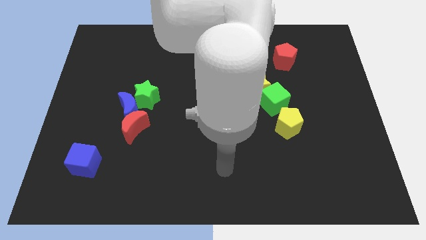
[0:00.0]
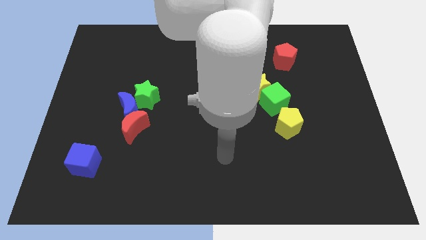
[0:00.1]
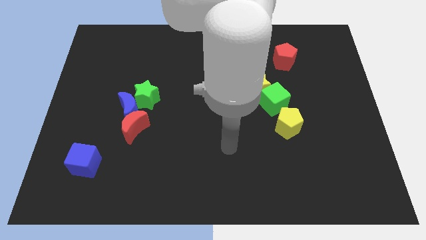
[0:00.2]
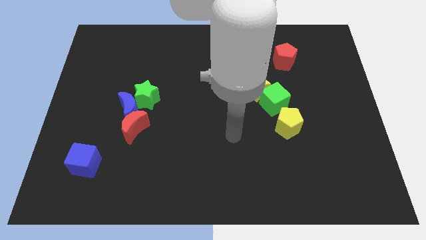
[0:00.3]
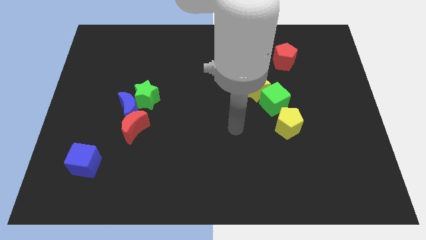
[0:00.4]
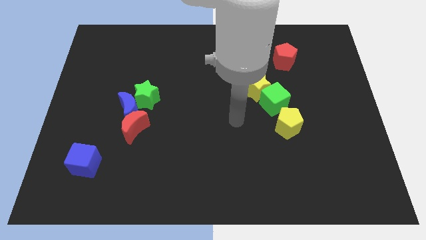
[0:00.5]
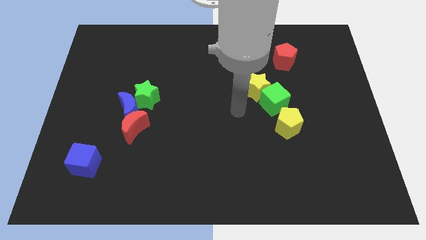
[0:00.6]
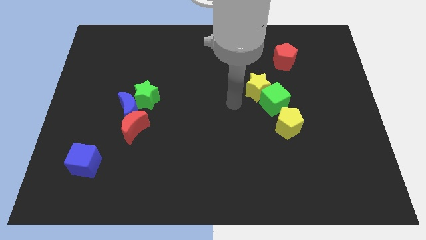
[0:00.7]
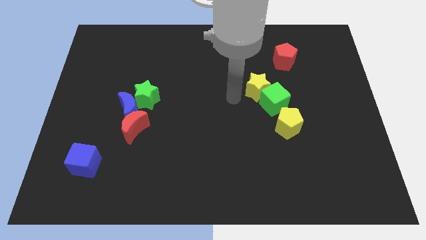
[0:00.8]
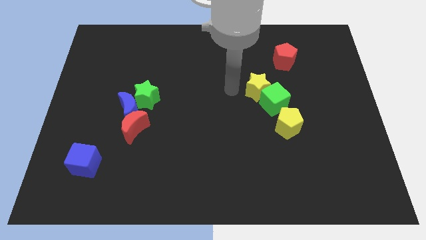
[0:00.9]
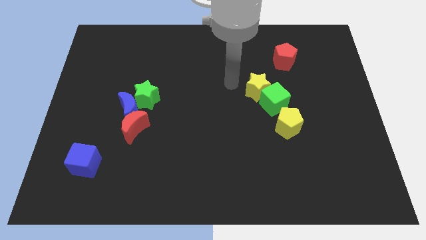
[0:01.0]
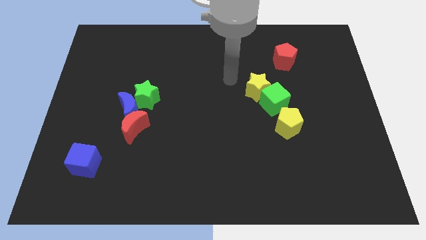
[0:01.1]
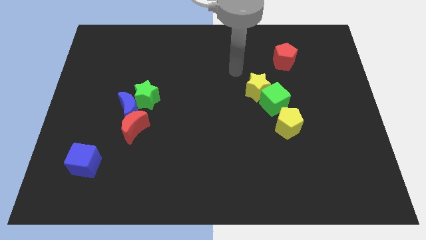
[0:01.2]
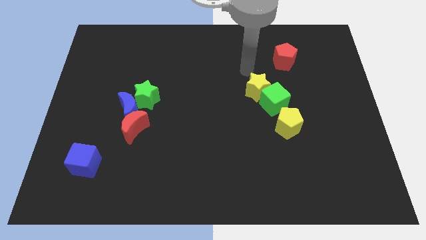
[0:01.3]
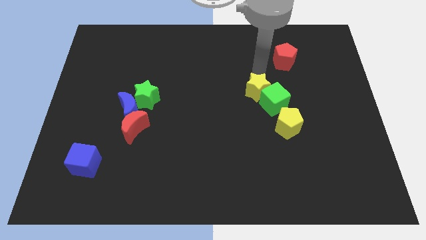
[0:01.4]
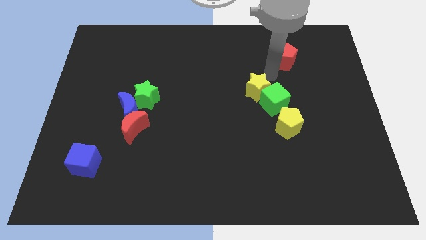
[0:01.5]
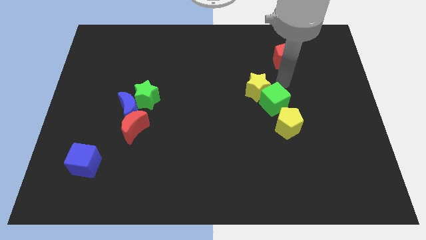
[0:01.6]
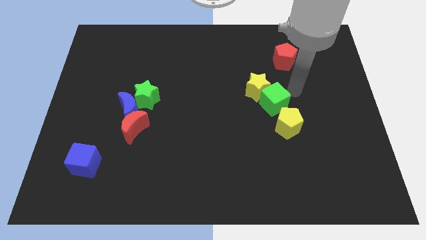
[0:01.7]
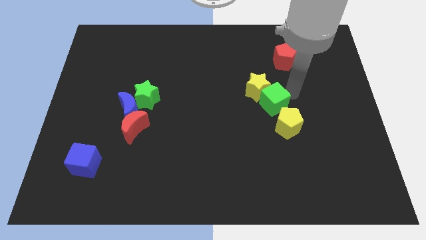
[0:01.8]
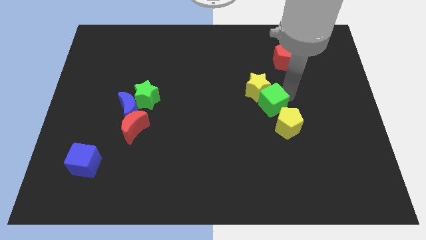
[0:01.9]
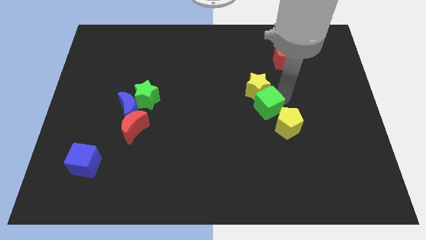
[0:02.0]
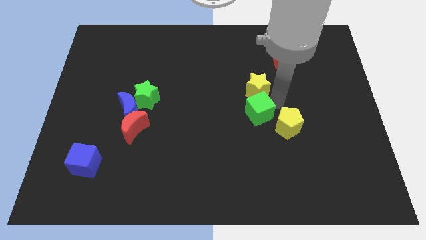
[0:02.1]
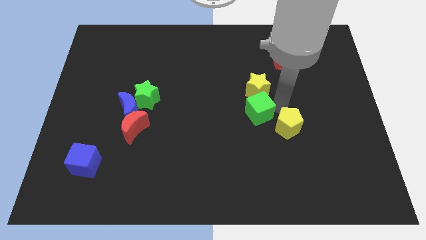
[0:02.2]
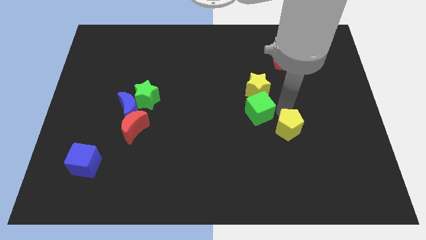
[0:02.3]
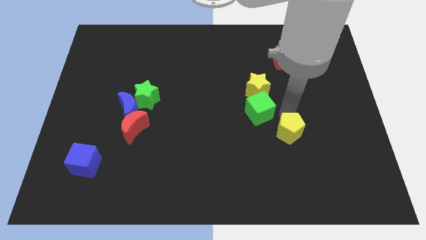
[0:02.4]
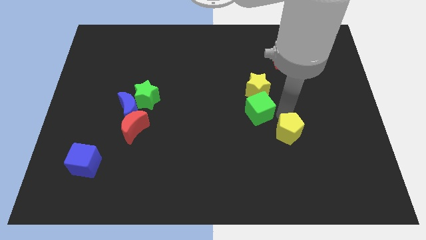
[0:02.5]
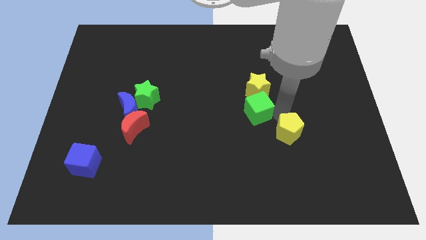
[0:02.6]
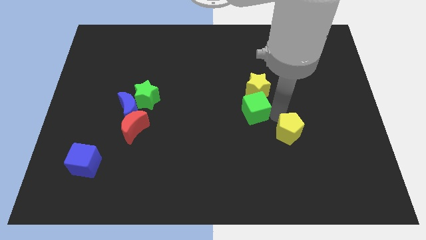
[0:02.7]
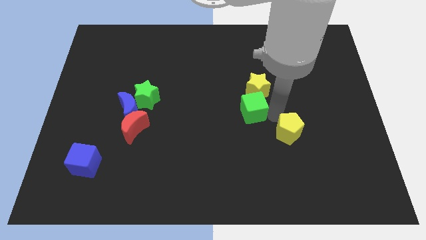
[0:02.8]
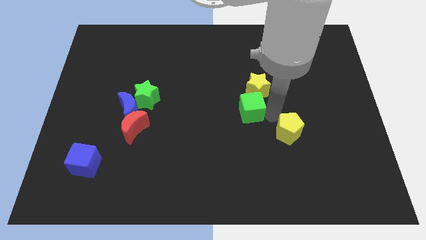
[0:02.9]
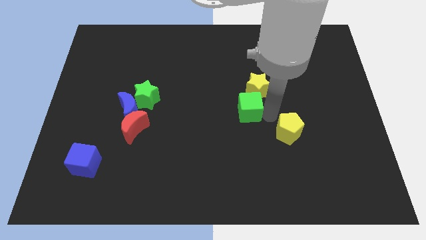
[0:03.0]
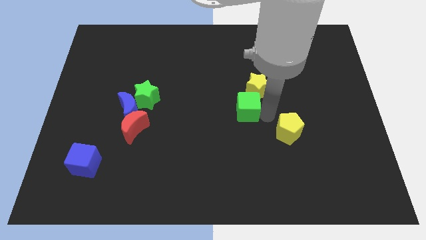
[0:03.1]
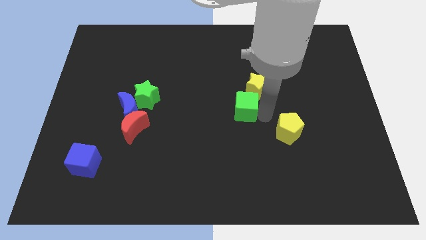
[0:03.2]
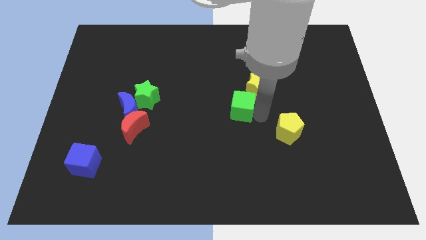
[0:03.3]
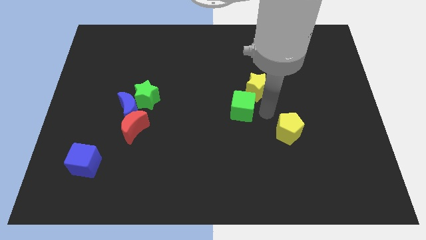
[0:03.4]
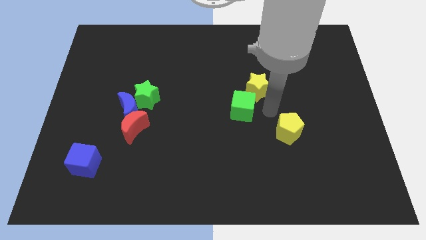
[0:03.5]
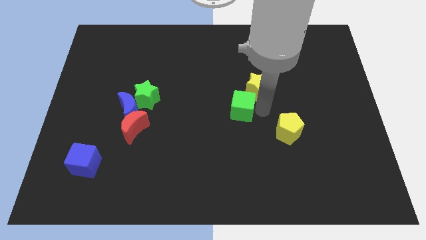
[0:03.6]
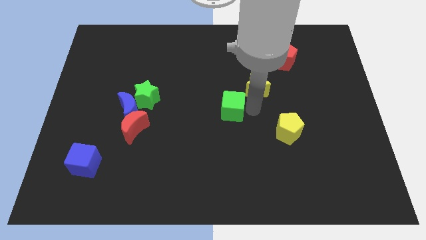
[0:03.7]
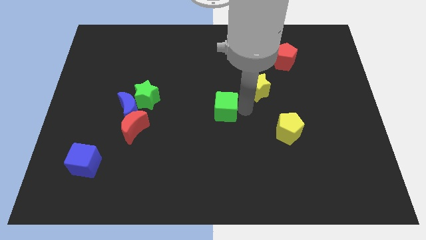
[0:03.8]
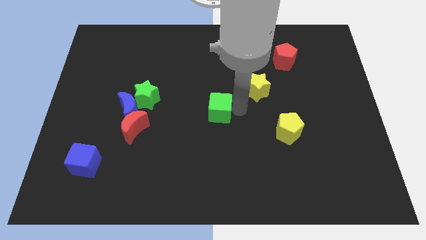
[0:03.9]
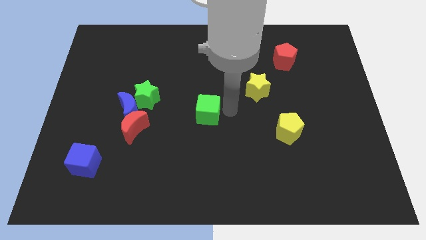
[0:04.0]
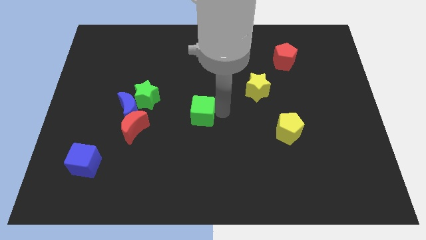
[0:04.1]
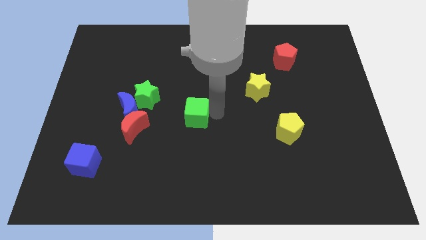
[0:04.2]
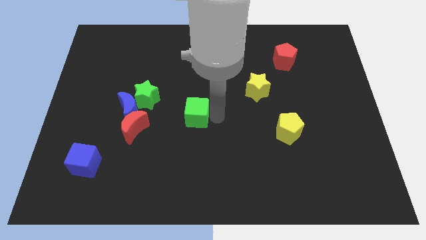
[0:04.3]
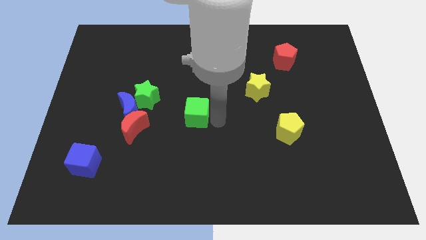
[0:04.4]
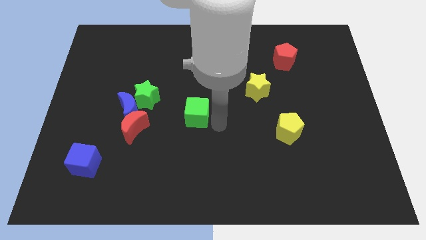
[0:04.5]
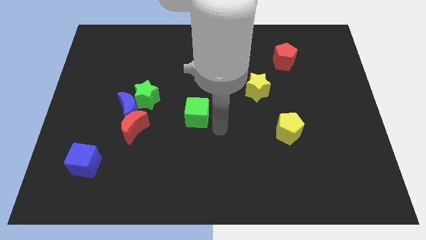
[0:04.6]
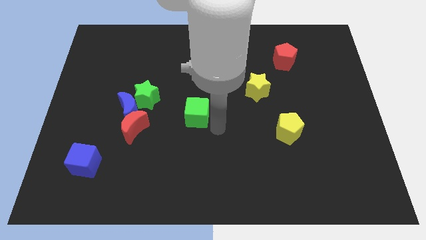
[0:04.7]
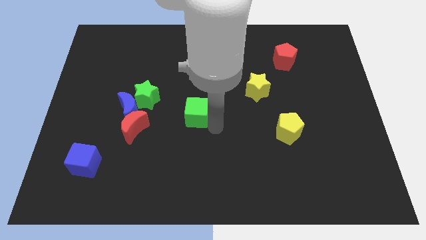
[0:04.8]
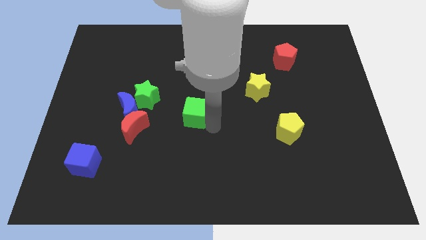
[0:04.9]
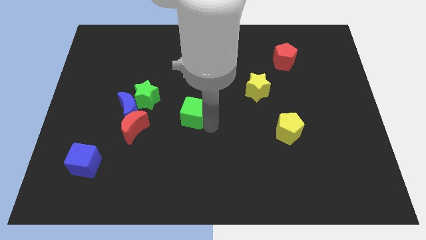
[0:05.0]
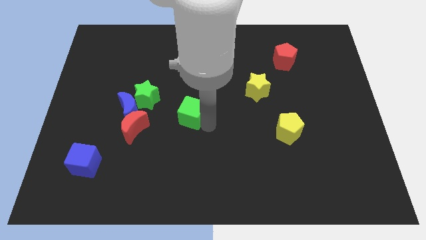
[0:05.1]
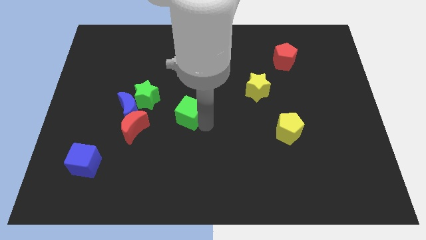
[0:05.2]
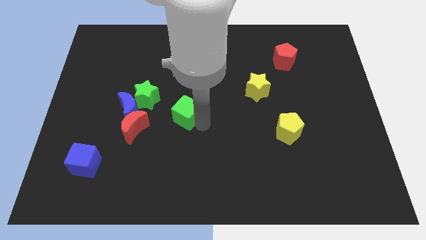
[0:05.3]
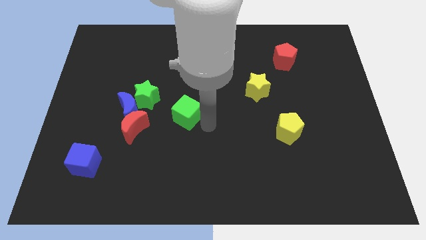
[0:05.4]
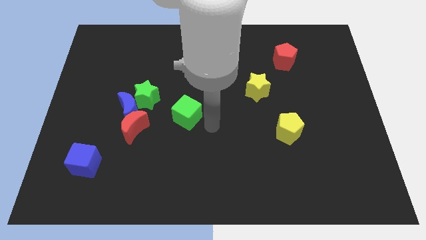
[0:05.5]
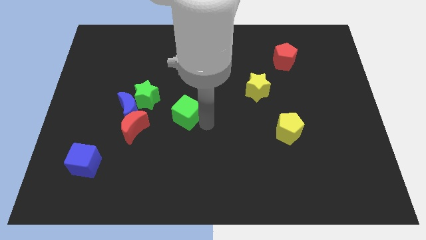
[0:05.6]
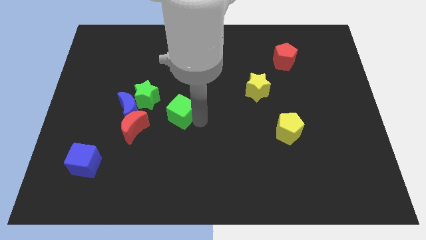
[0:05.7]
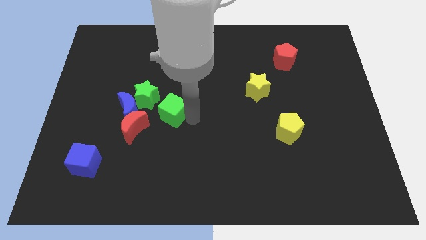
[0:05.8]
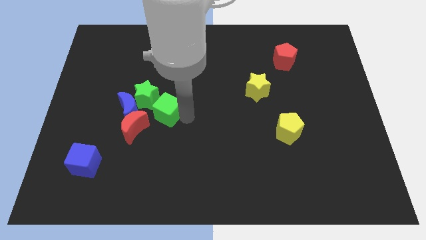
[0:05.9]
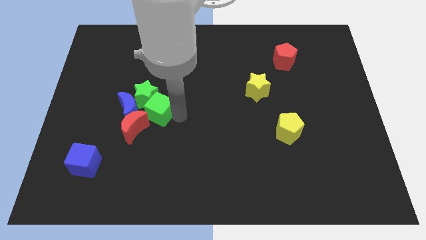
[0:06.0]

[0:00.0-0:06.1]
slide the green cube next to the green star

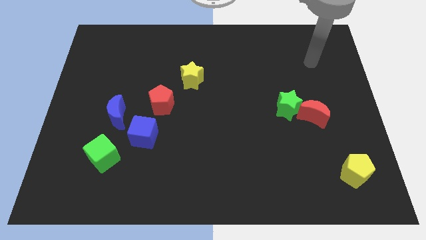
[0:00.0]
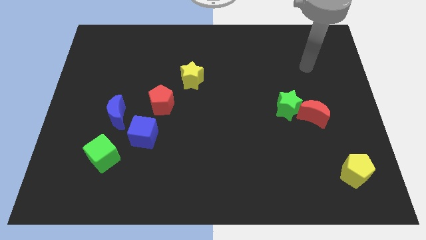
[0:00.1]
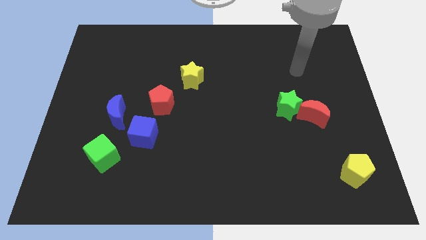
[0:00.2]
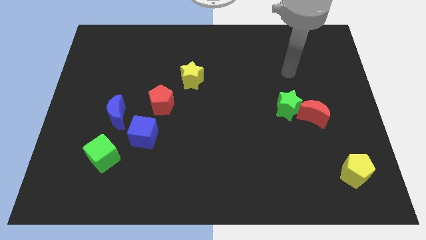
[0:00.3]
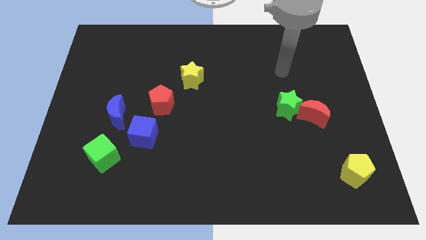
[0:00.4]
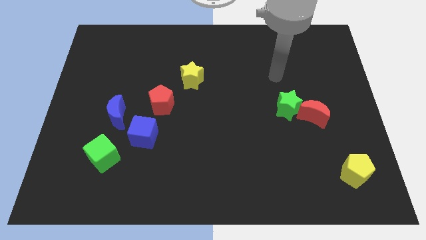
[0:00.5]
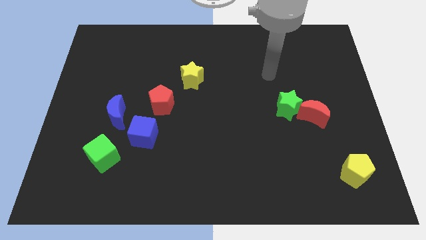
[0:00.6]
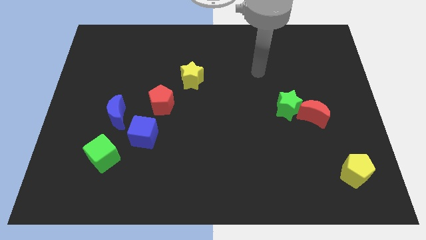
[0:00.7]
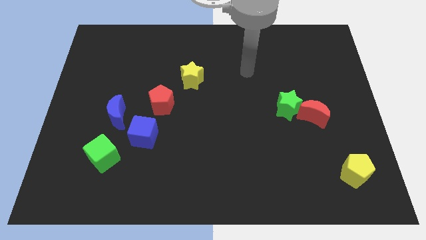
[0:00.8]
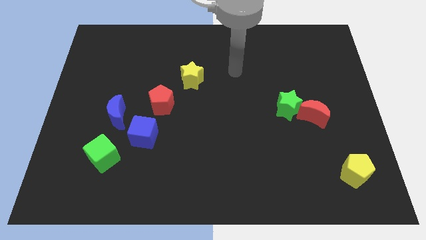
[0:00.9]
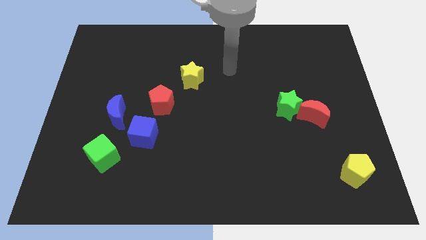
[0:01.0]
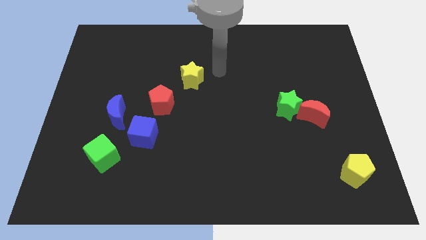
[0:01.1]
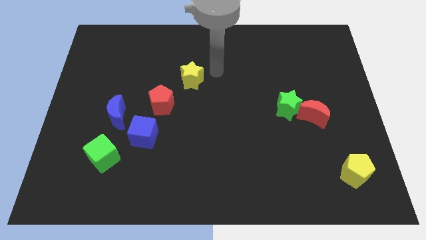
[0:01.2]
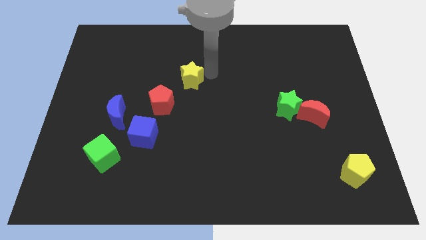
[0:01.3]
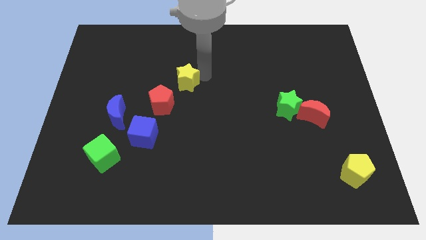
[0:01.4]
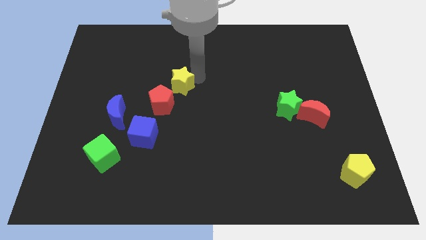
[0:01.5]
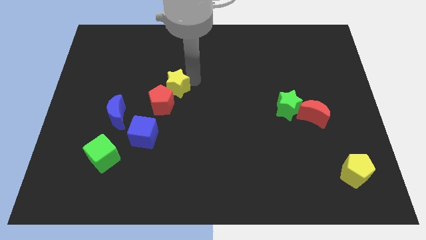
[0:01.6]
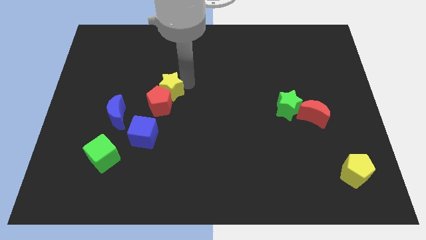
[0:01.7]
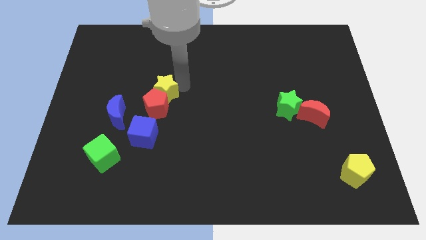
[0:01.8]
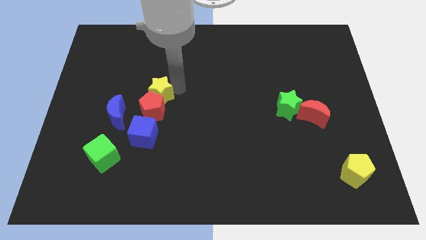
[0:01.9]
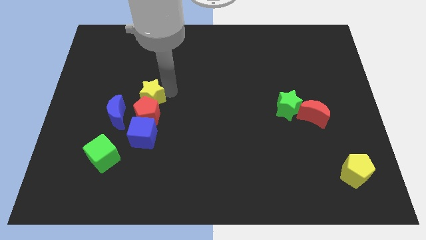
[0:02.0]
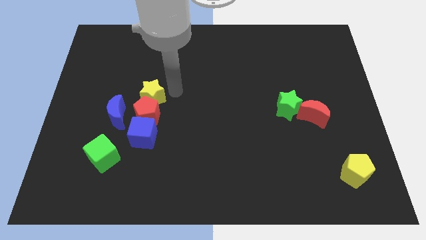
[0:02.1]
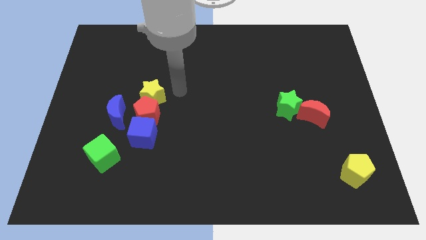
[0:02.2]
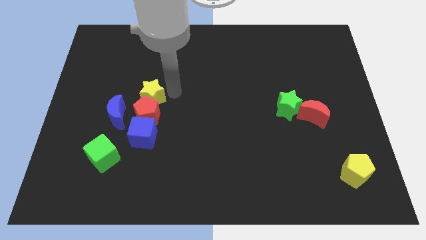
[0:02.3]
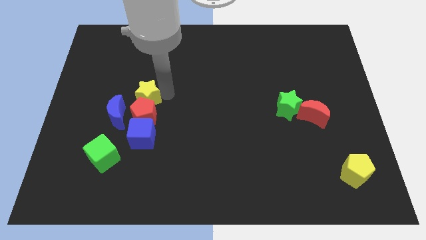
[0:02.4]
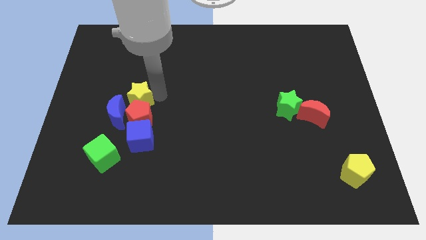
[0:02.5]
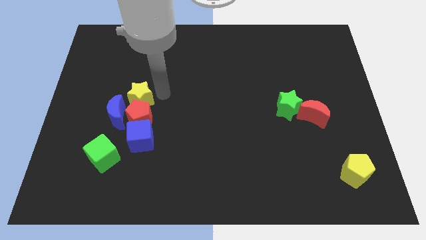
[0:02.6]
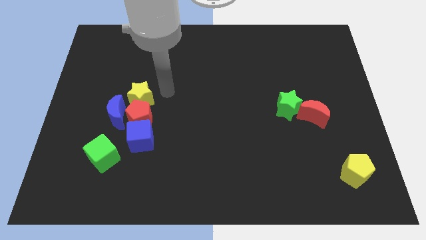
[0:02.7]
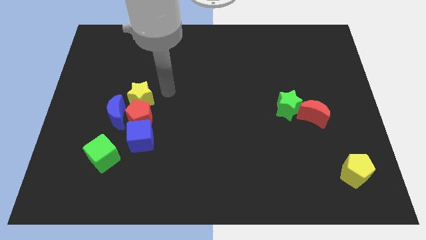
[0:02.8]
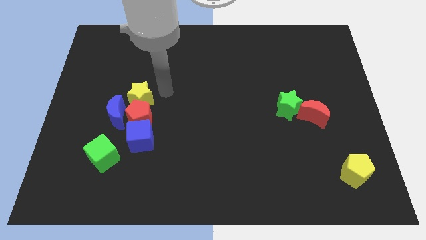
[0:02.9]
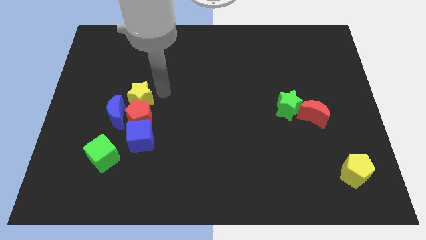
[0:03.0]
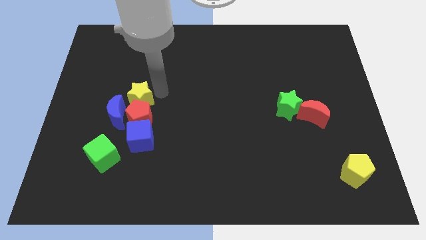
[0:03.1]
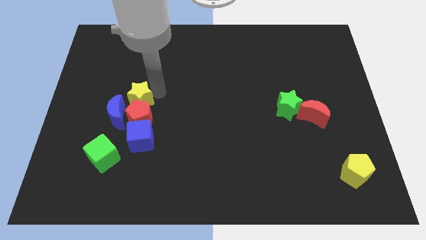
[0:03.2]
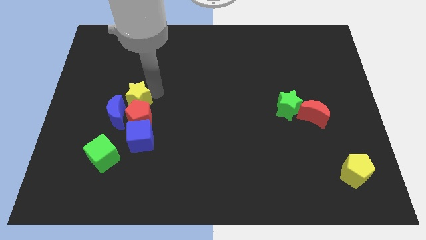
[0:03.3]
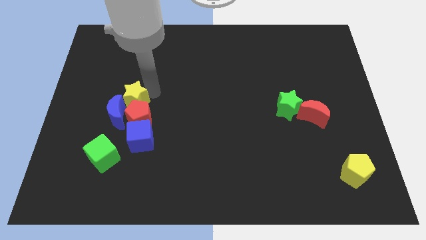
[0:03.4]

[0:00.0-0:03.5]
put the yellow star towards the blue moon
